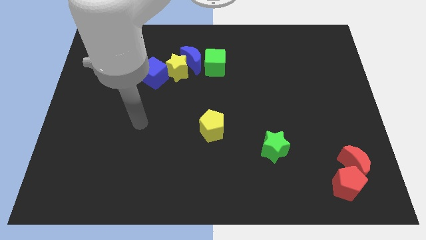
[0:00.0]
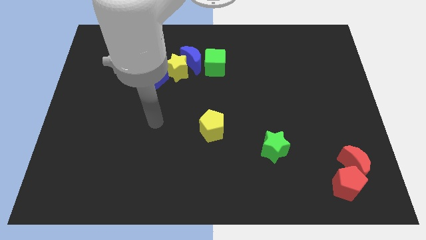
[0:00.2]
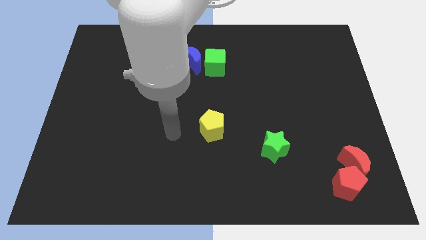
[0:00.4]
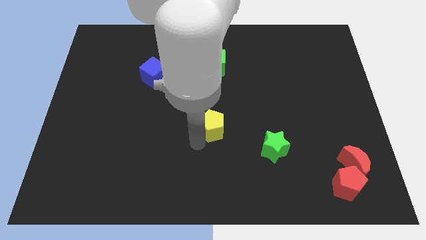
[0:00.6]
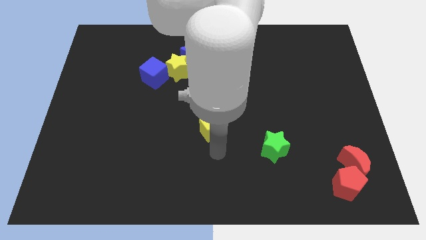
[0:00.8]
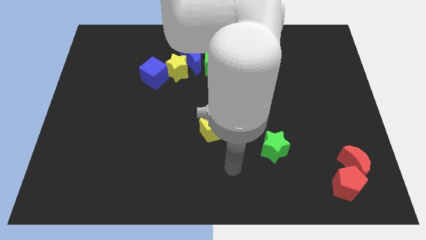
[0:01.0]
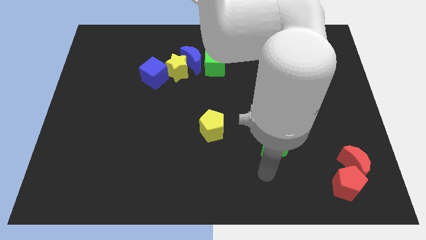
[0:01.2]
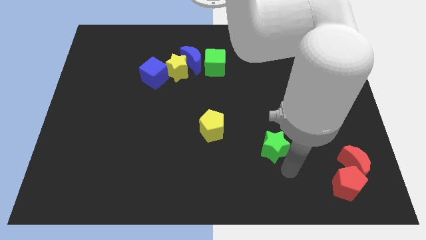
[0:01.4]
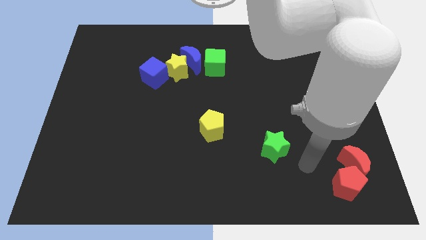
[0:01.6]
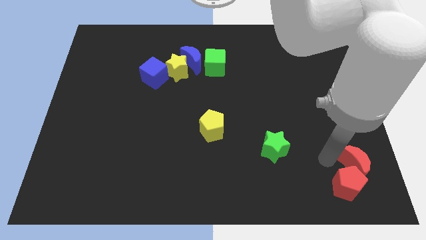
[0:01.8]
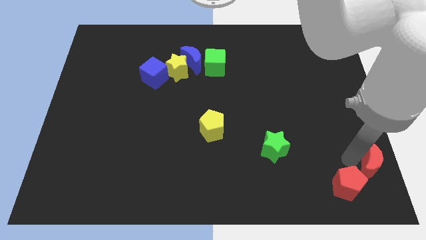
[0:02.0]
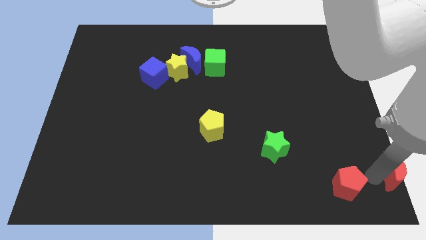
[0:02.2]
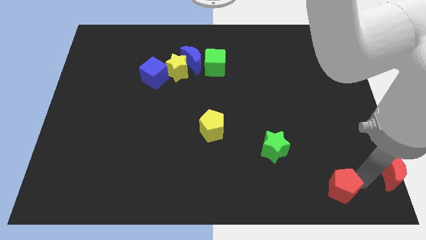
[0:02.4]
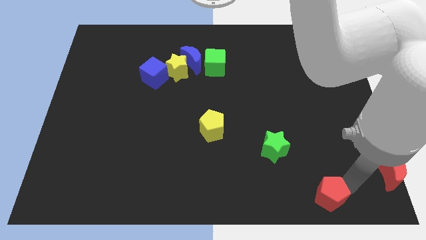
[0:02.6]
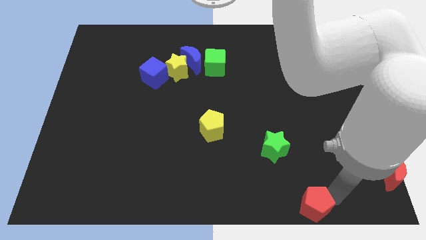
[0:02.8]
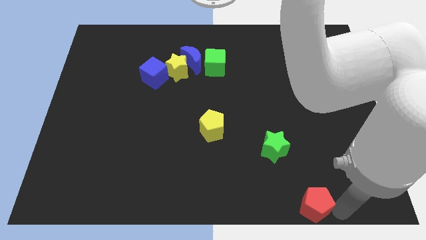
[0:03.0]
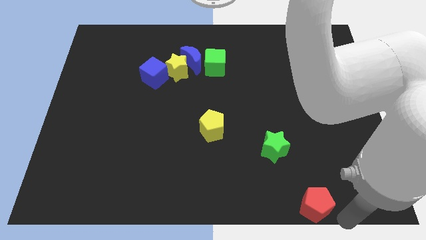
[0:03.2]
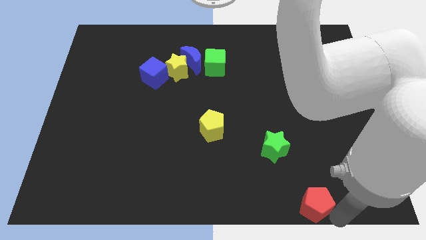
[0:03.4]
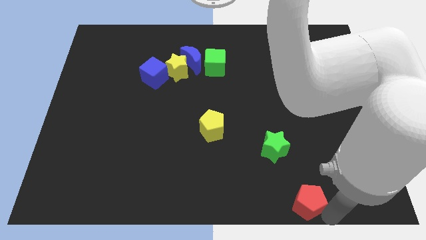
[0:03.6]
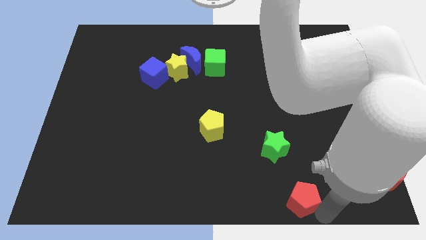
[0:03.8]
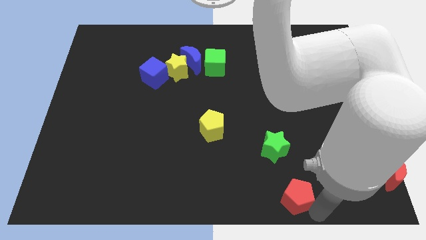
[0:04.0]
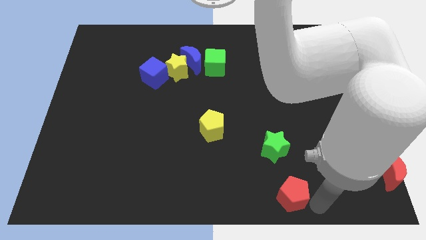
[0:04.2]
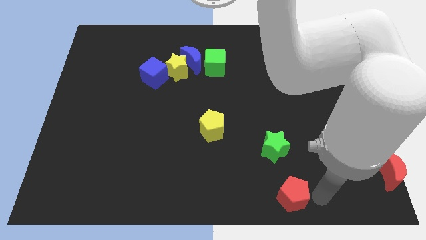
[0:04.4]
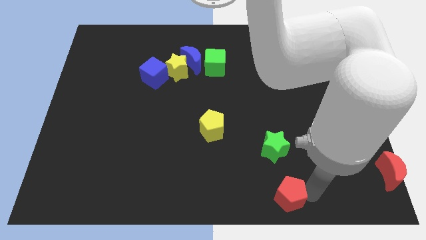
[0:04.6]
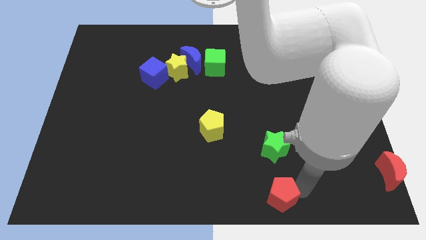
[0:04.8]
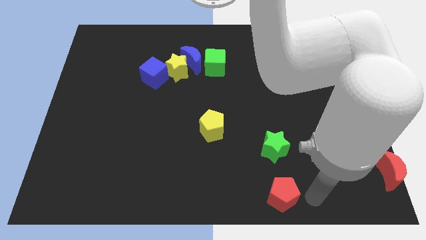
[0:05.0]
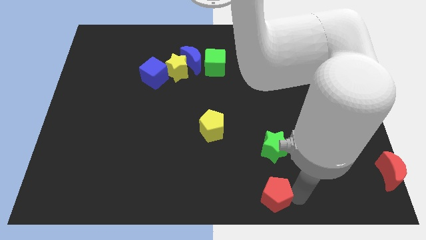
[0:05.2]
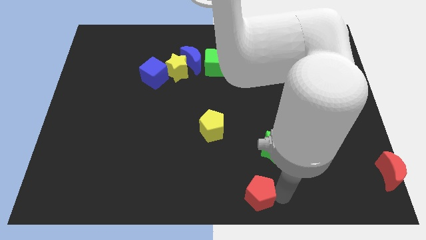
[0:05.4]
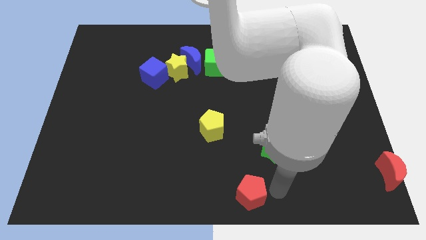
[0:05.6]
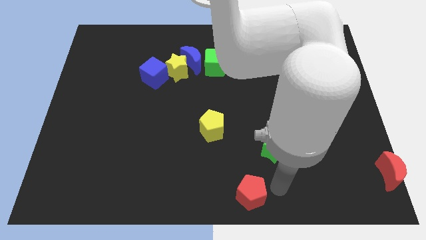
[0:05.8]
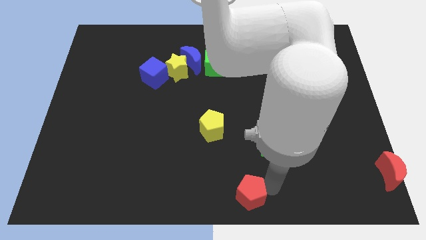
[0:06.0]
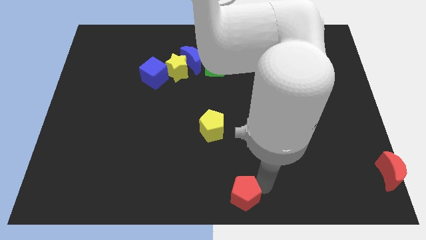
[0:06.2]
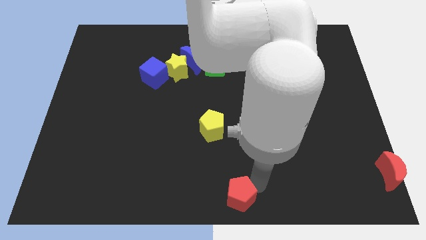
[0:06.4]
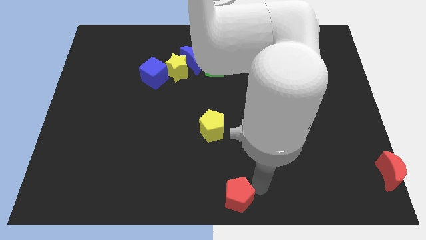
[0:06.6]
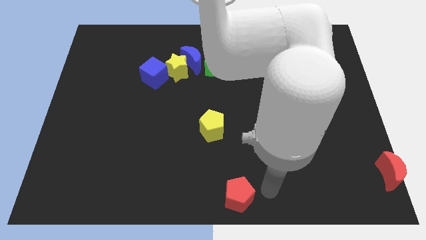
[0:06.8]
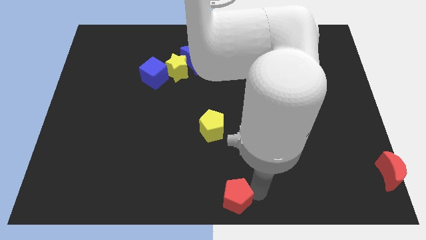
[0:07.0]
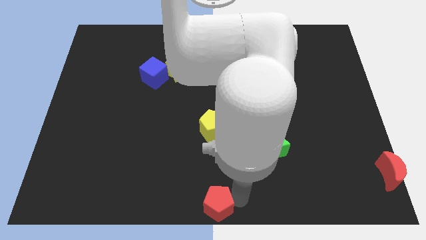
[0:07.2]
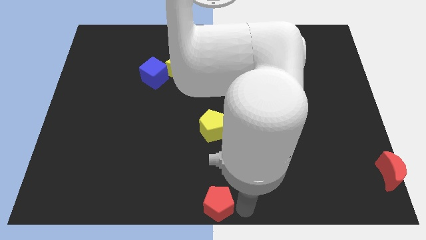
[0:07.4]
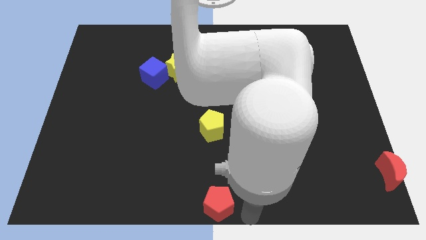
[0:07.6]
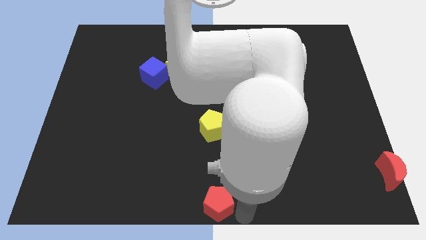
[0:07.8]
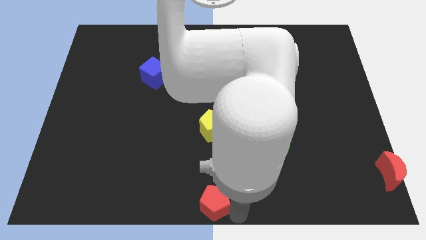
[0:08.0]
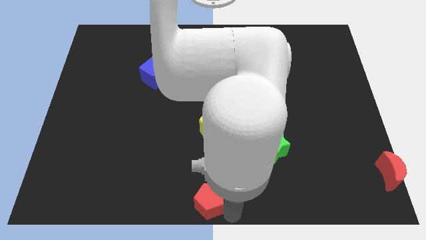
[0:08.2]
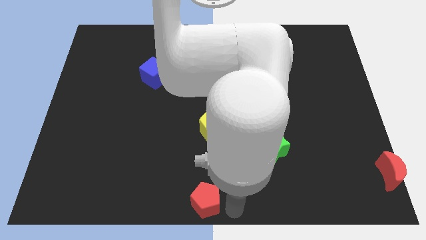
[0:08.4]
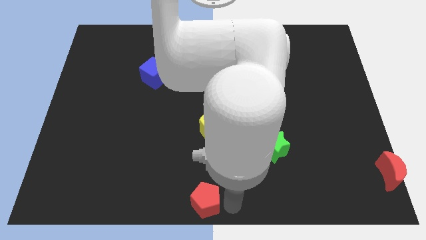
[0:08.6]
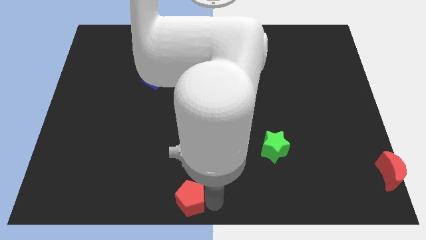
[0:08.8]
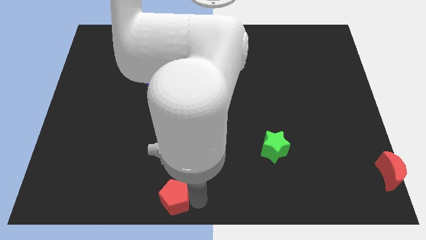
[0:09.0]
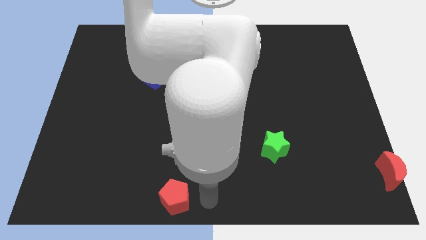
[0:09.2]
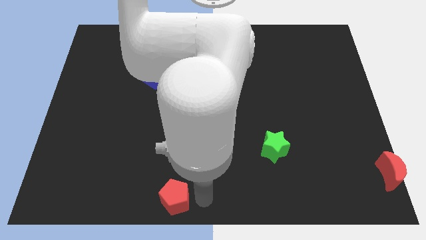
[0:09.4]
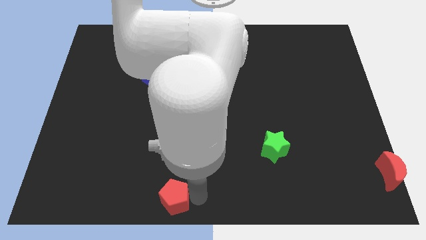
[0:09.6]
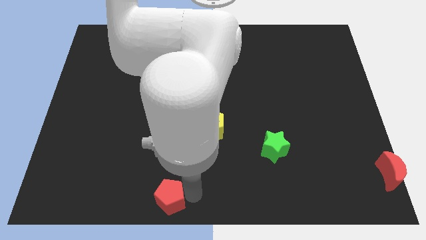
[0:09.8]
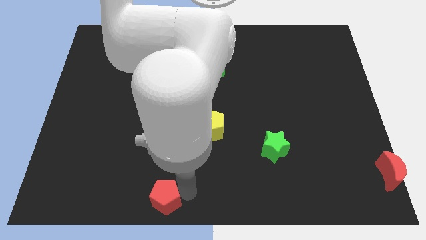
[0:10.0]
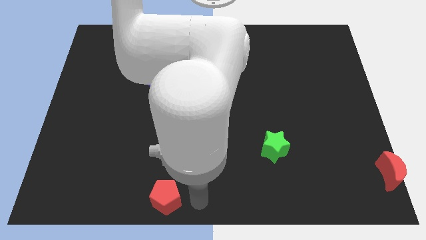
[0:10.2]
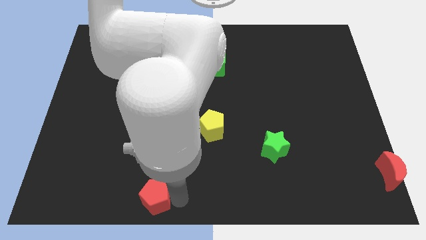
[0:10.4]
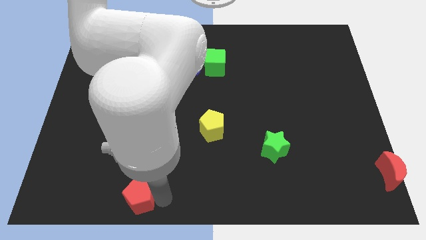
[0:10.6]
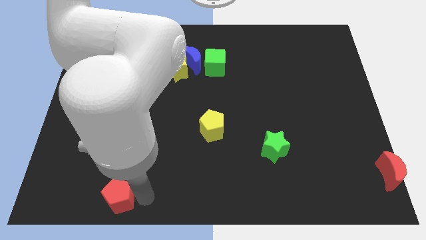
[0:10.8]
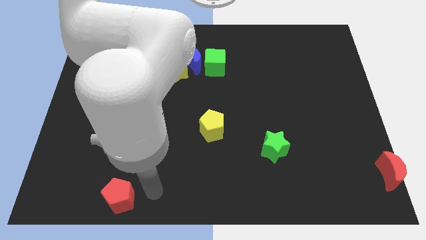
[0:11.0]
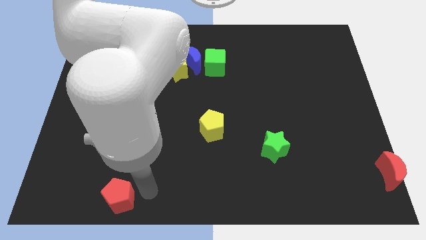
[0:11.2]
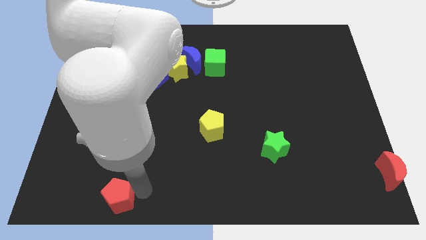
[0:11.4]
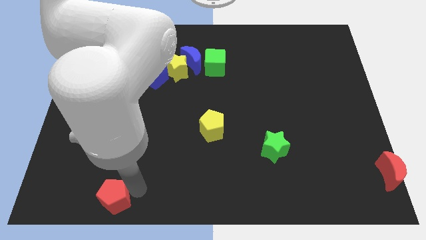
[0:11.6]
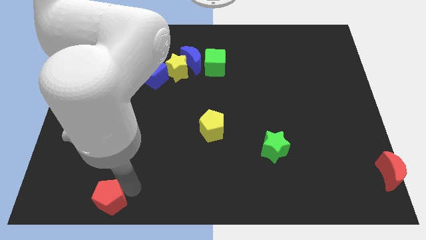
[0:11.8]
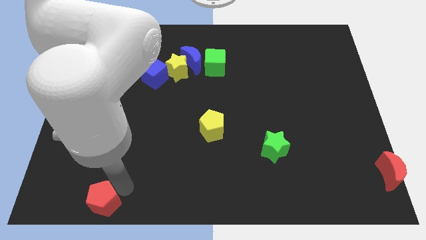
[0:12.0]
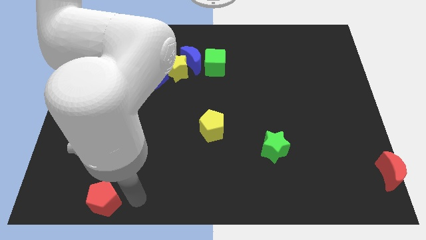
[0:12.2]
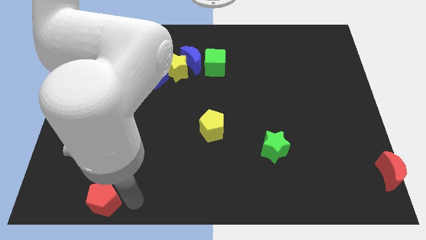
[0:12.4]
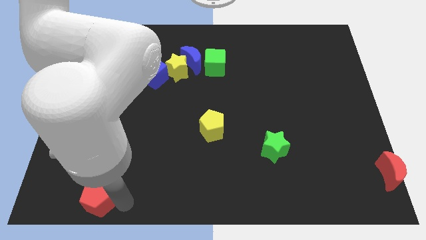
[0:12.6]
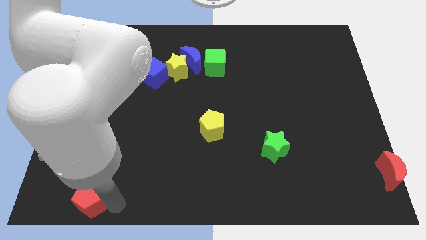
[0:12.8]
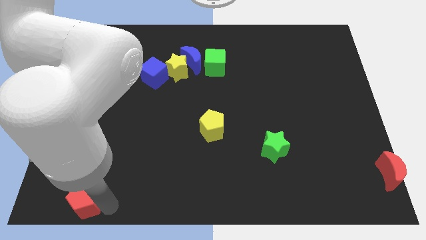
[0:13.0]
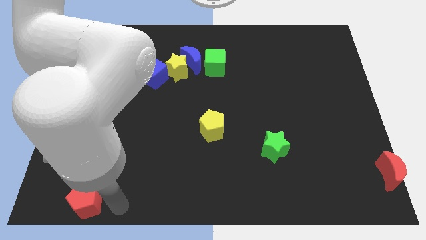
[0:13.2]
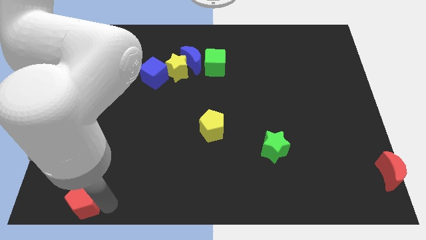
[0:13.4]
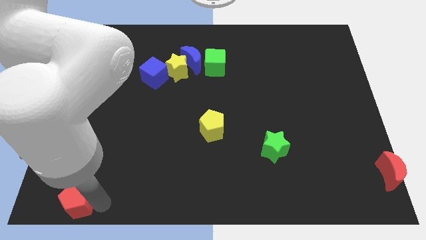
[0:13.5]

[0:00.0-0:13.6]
put the red pentagon to the lower left corner

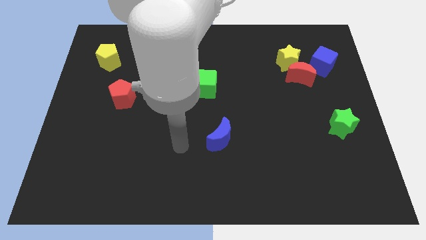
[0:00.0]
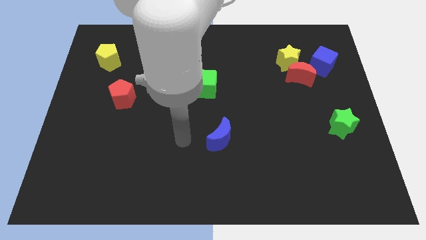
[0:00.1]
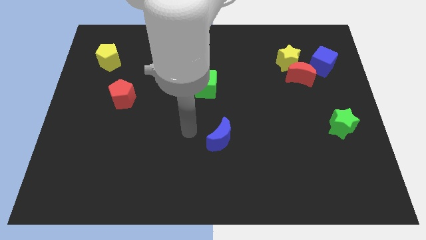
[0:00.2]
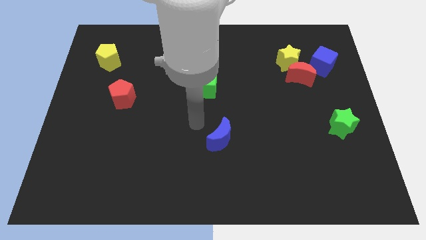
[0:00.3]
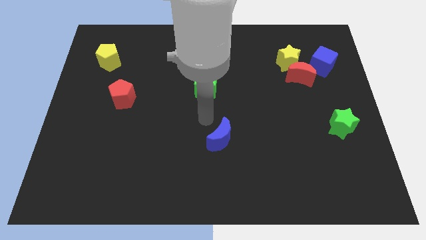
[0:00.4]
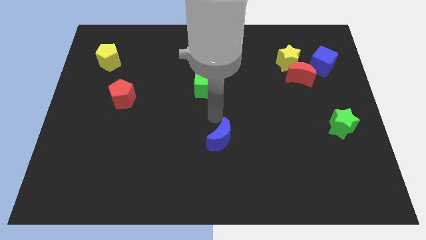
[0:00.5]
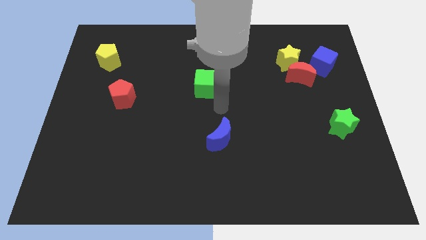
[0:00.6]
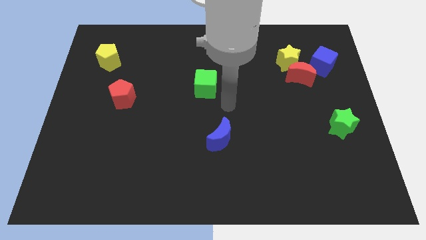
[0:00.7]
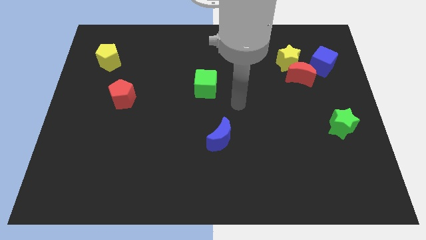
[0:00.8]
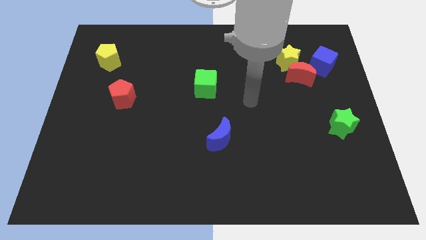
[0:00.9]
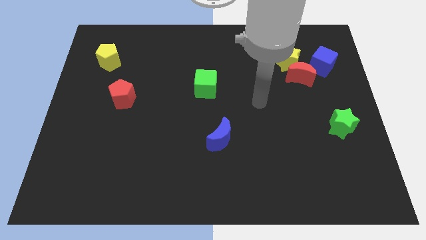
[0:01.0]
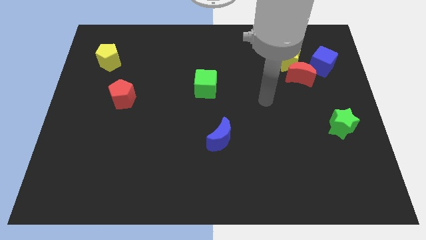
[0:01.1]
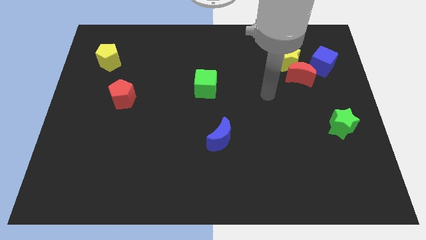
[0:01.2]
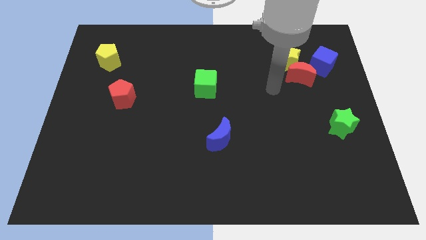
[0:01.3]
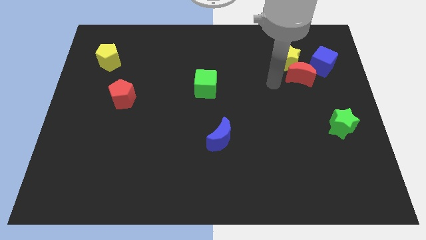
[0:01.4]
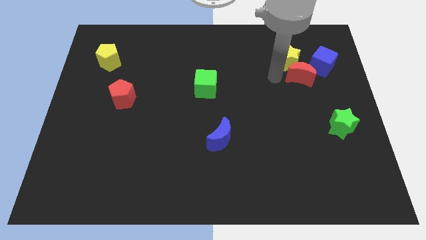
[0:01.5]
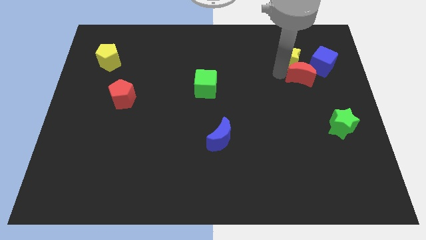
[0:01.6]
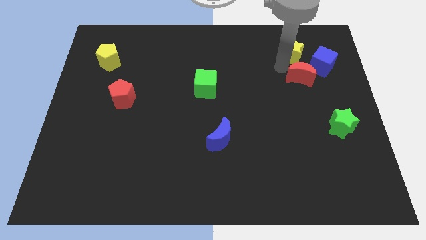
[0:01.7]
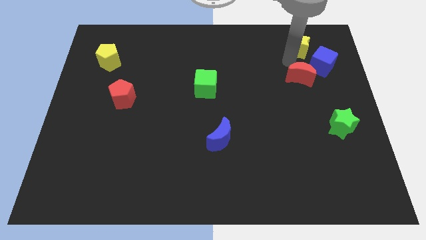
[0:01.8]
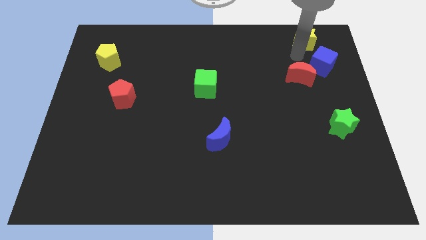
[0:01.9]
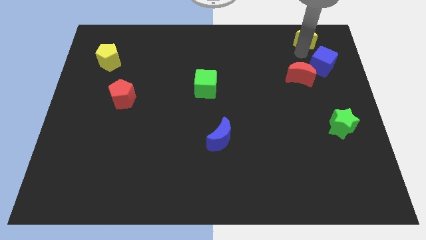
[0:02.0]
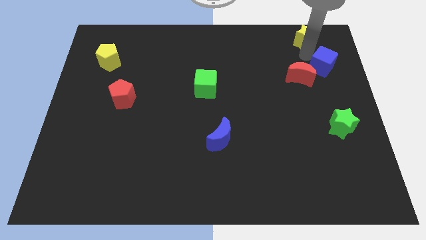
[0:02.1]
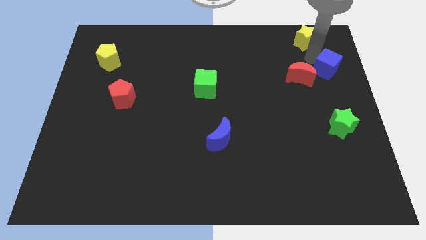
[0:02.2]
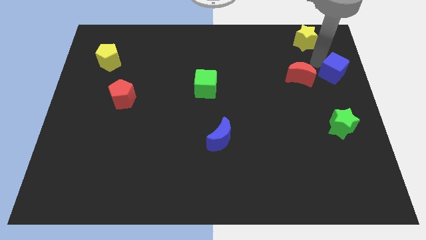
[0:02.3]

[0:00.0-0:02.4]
slide the blue cube to the right side of the board
